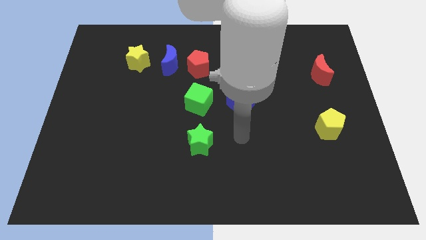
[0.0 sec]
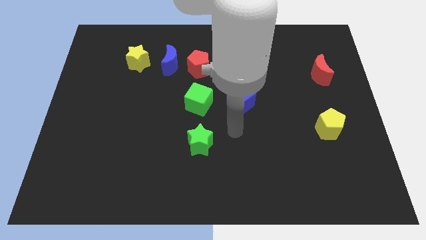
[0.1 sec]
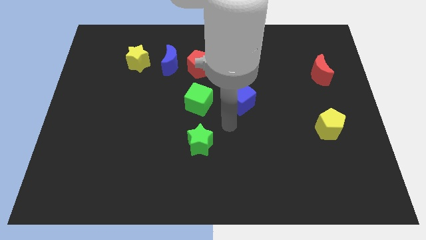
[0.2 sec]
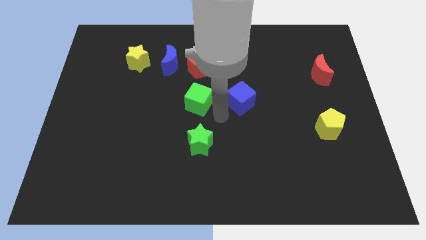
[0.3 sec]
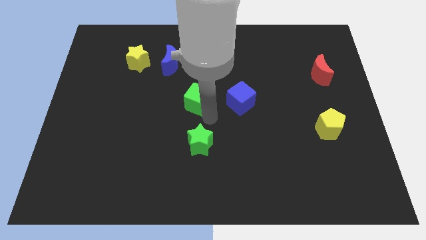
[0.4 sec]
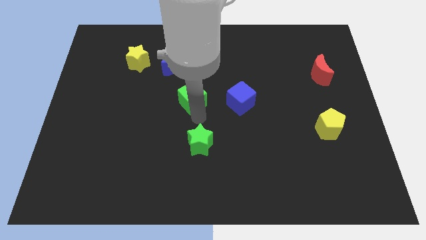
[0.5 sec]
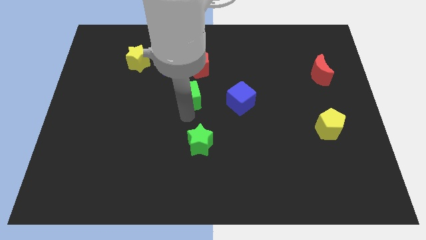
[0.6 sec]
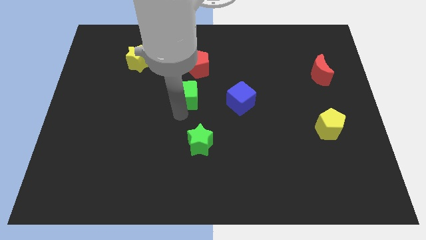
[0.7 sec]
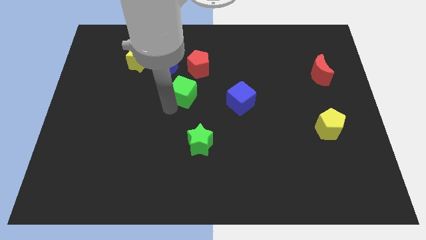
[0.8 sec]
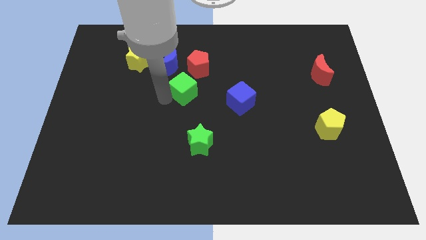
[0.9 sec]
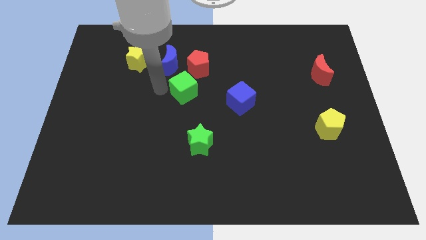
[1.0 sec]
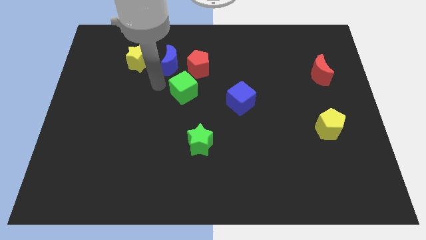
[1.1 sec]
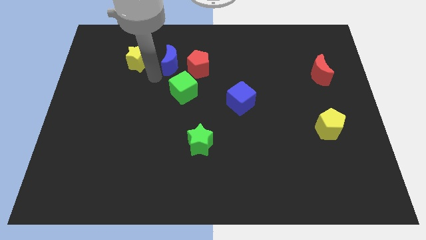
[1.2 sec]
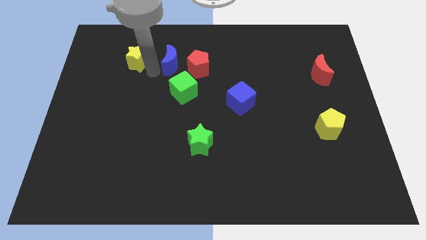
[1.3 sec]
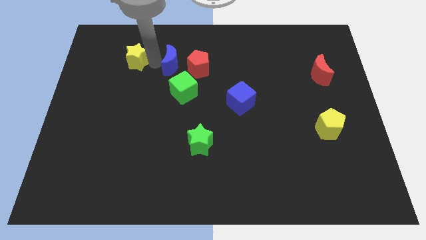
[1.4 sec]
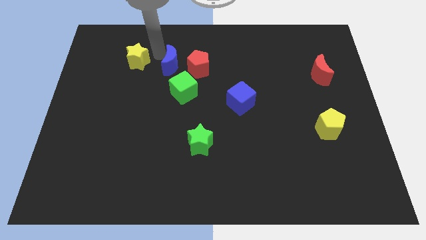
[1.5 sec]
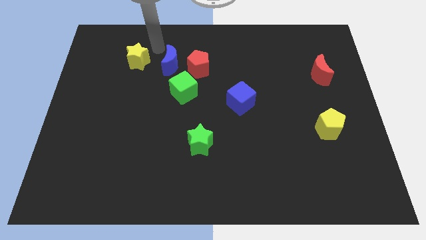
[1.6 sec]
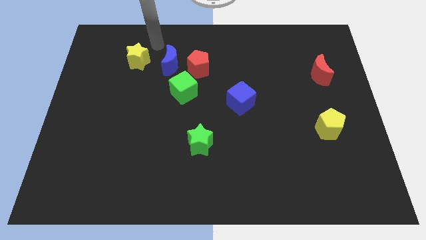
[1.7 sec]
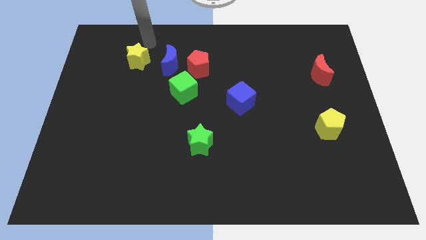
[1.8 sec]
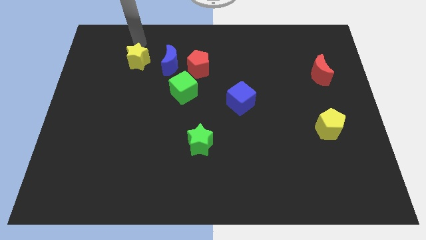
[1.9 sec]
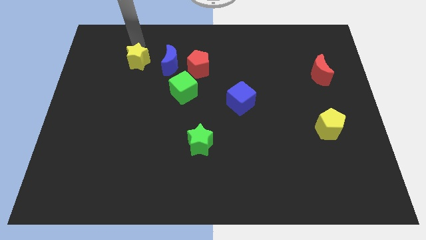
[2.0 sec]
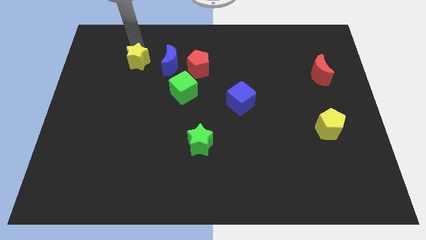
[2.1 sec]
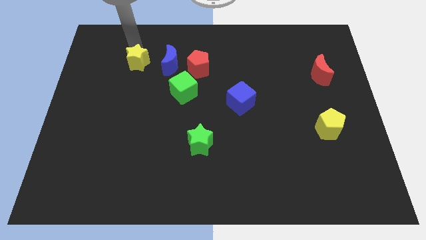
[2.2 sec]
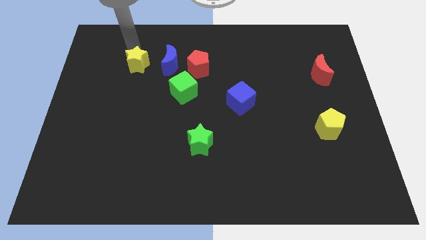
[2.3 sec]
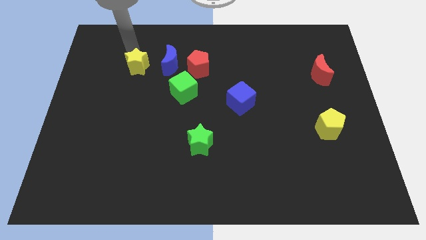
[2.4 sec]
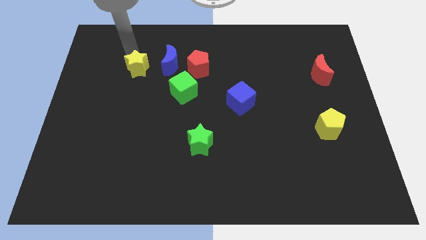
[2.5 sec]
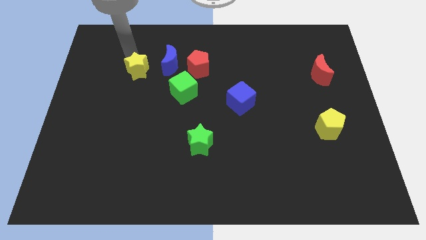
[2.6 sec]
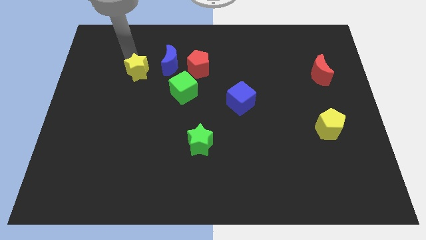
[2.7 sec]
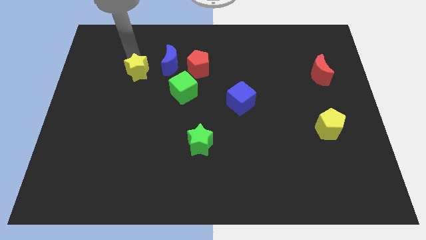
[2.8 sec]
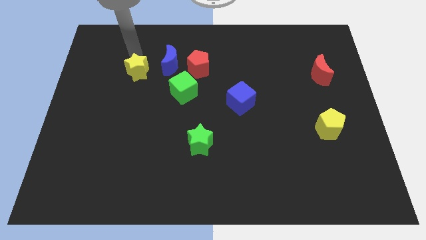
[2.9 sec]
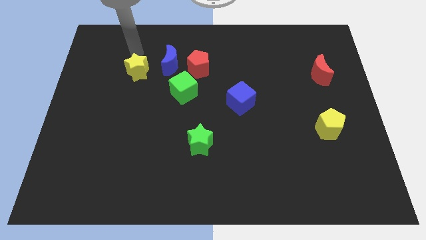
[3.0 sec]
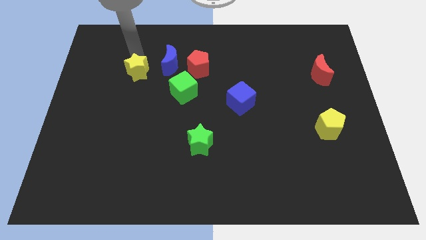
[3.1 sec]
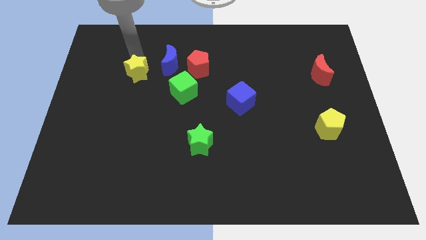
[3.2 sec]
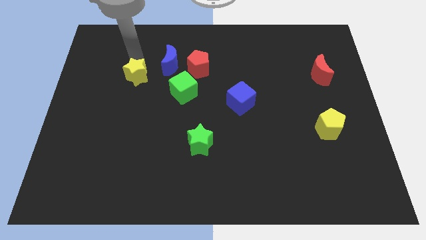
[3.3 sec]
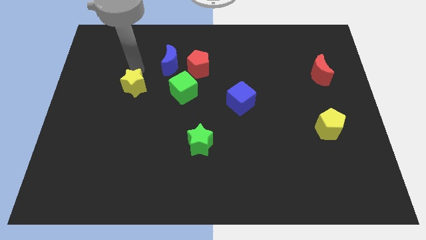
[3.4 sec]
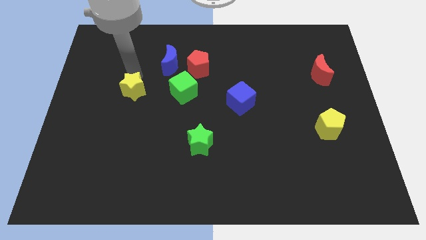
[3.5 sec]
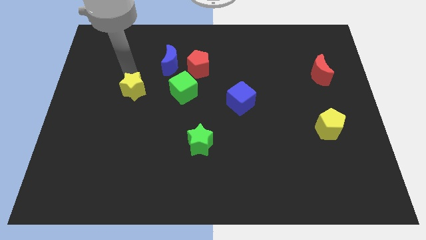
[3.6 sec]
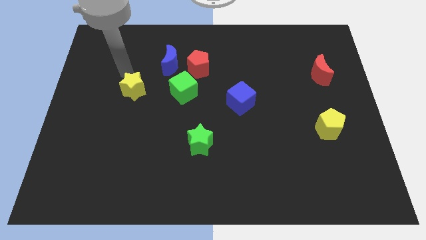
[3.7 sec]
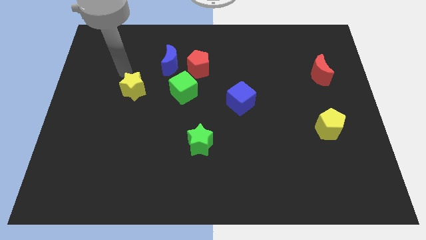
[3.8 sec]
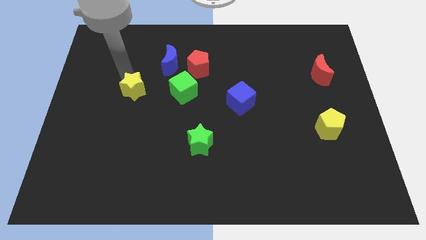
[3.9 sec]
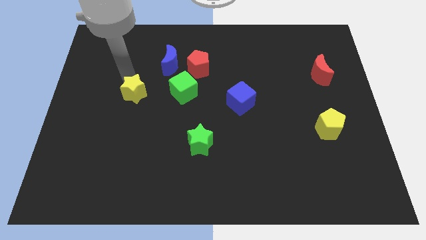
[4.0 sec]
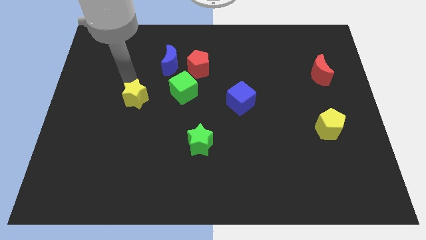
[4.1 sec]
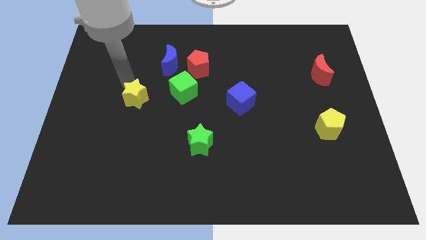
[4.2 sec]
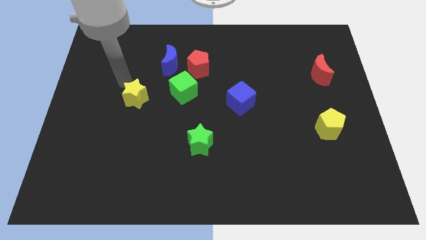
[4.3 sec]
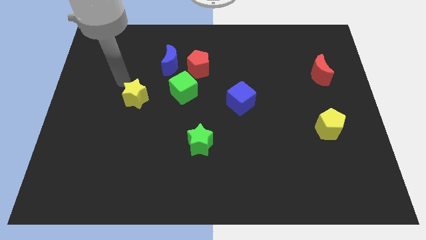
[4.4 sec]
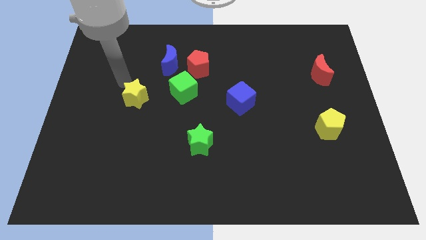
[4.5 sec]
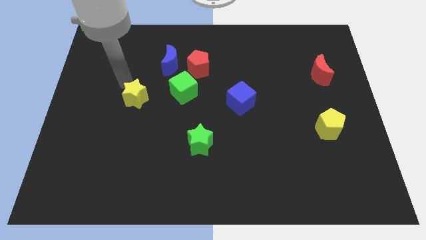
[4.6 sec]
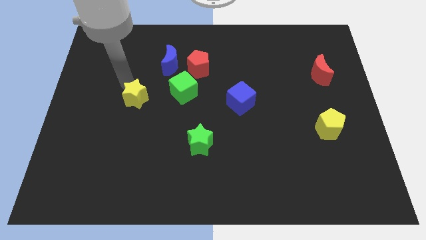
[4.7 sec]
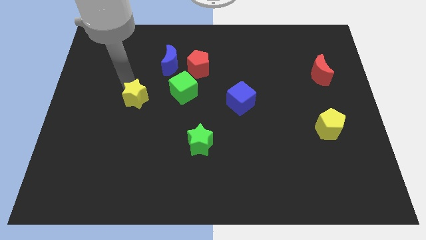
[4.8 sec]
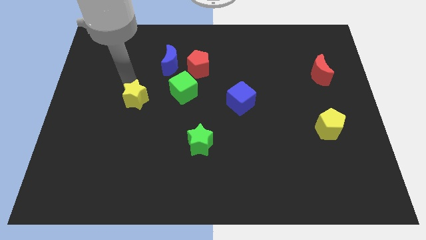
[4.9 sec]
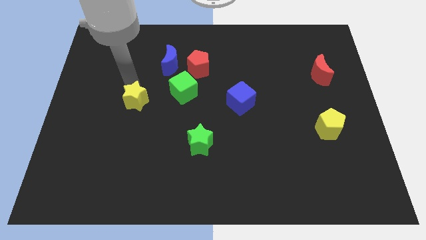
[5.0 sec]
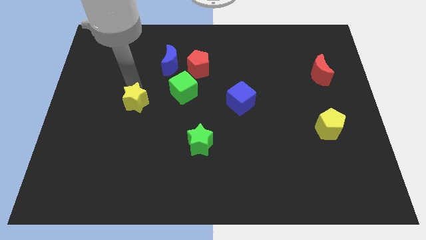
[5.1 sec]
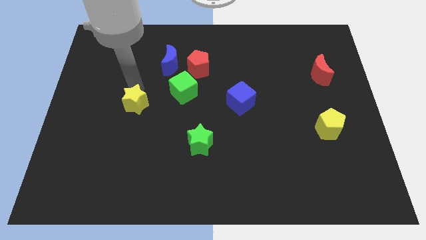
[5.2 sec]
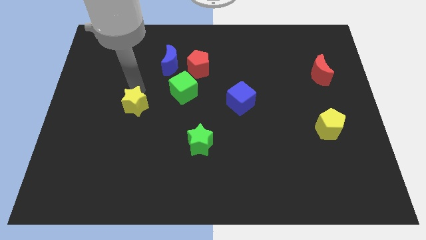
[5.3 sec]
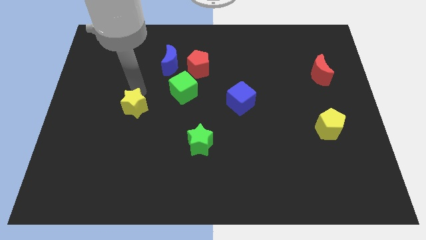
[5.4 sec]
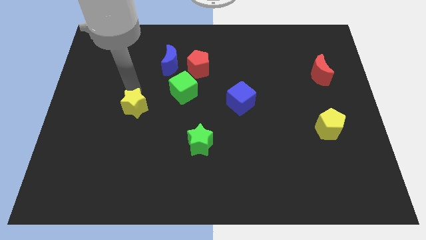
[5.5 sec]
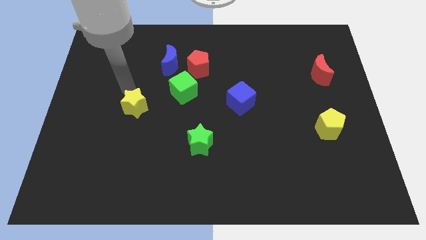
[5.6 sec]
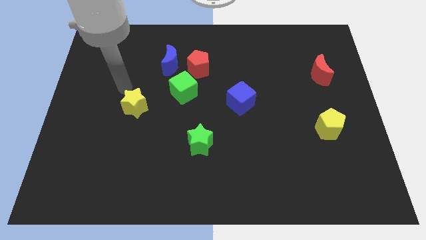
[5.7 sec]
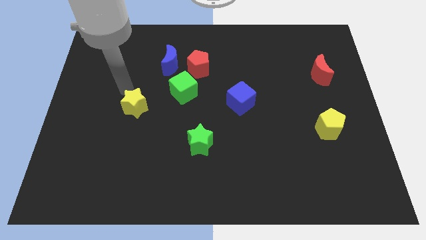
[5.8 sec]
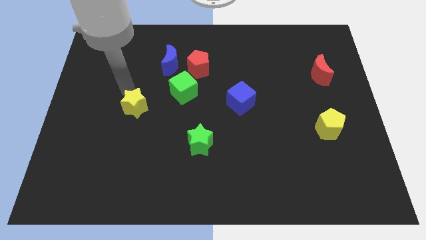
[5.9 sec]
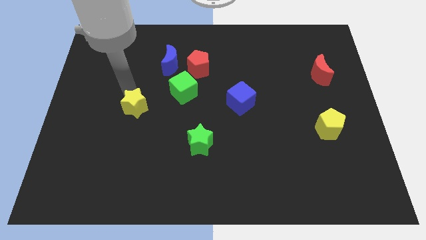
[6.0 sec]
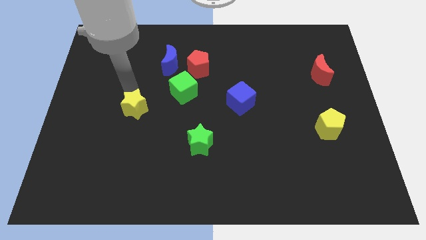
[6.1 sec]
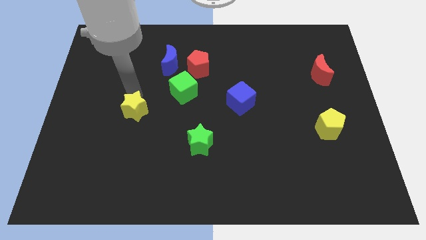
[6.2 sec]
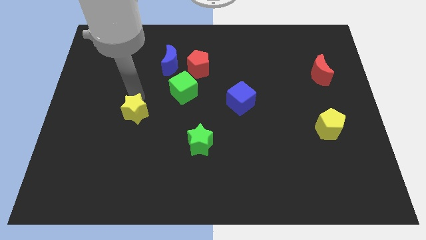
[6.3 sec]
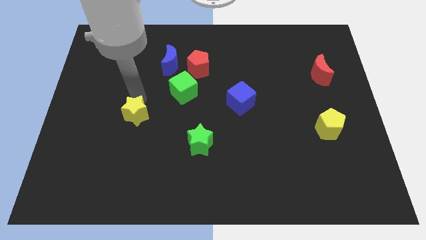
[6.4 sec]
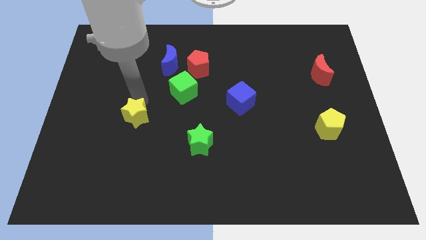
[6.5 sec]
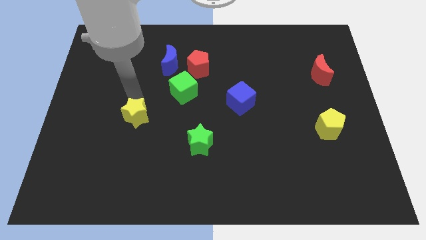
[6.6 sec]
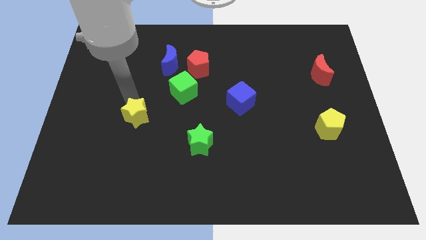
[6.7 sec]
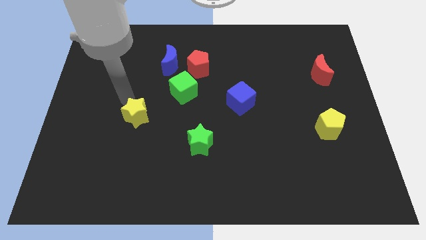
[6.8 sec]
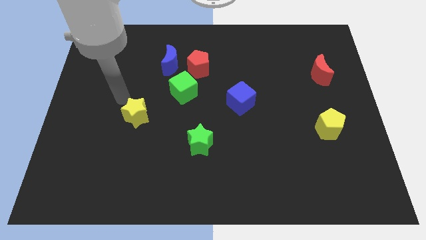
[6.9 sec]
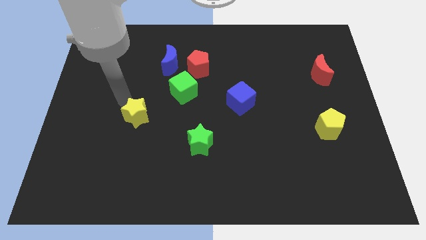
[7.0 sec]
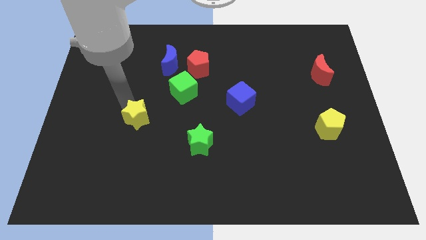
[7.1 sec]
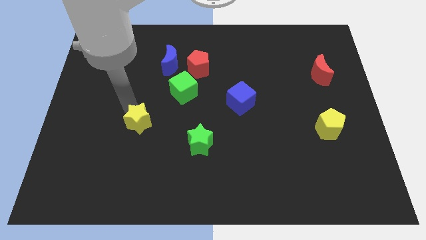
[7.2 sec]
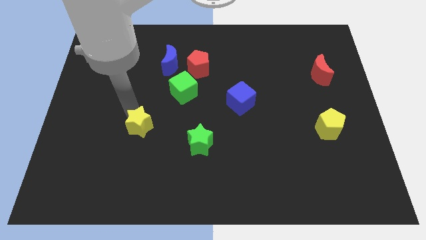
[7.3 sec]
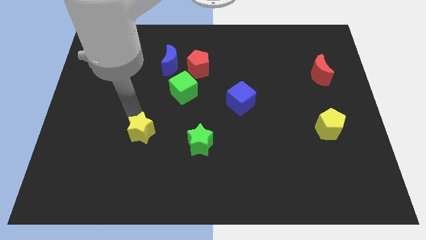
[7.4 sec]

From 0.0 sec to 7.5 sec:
put the yellow star to the left side of the green star
